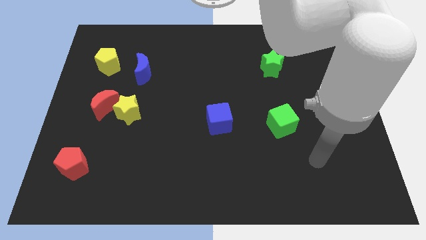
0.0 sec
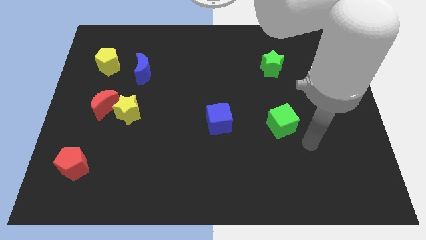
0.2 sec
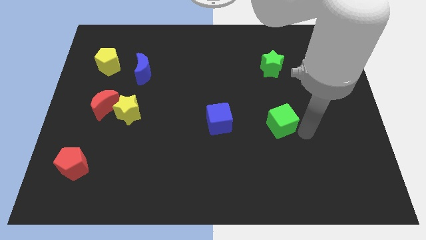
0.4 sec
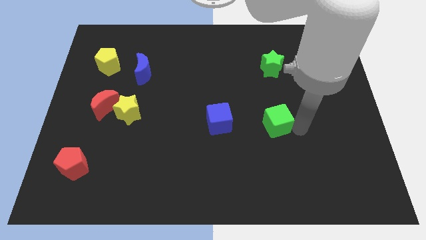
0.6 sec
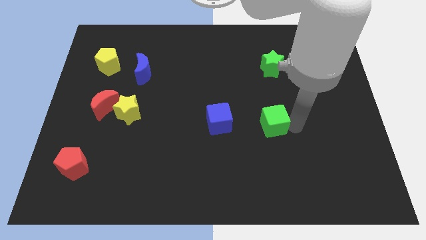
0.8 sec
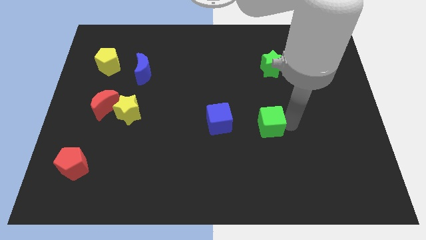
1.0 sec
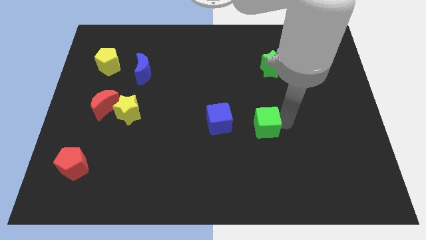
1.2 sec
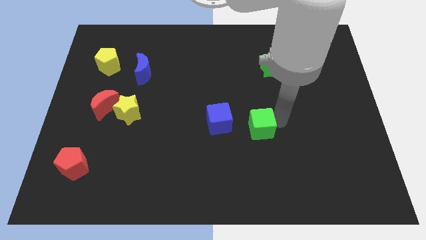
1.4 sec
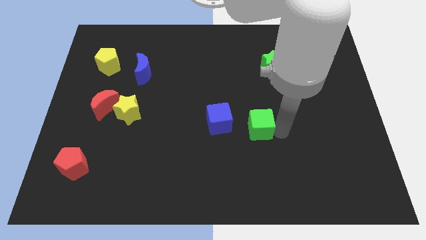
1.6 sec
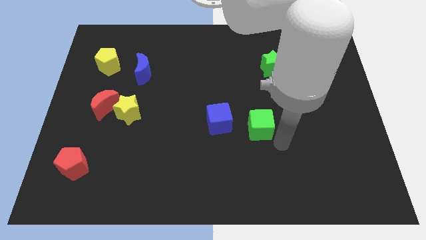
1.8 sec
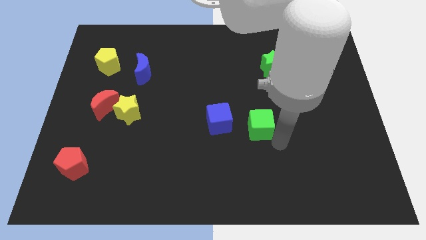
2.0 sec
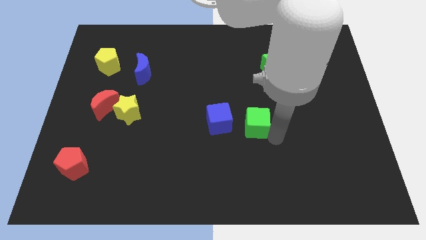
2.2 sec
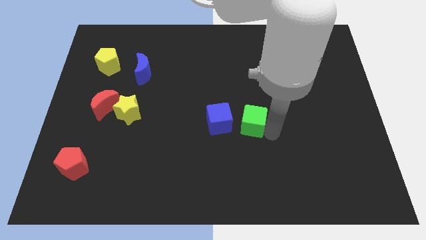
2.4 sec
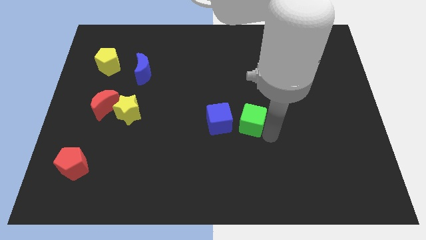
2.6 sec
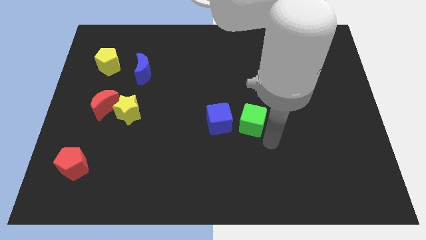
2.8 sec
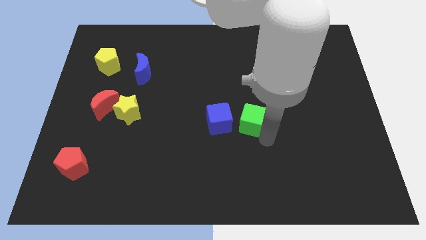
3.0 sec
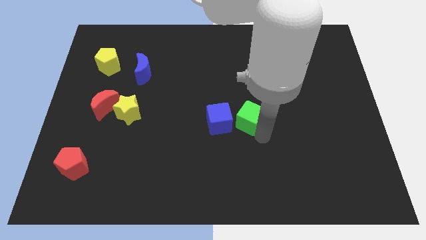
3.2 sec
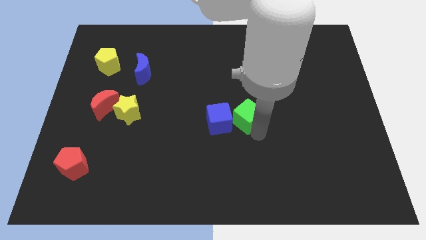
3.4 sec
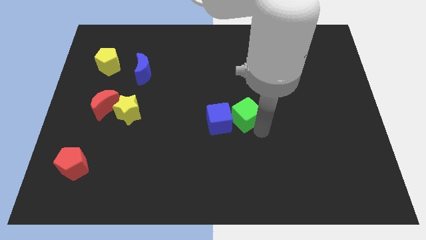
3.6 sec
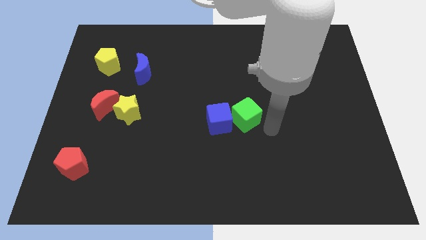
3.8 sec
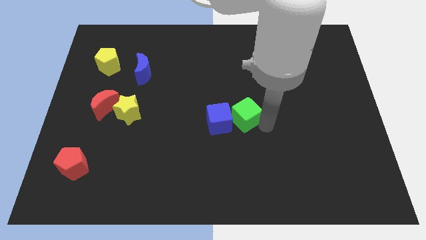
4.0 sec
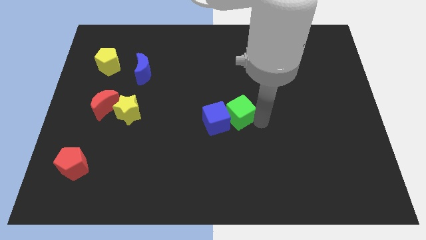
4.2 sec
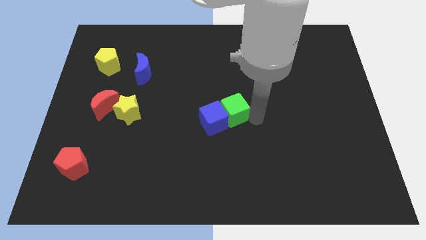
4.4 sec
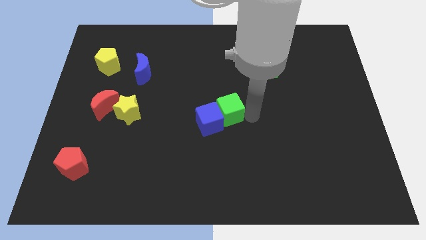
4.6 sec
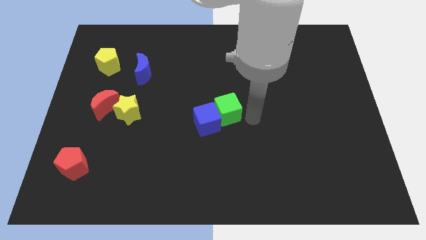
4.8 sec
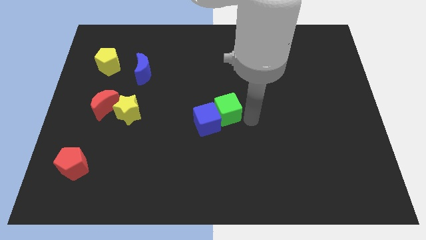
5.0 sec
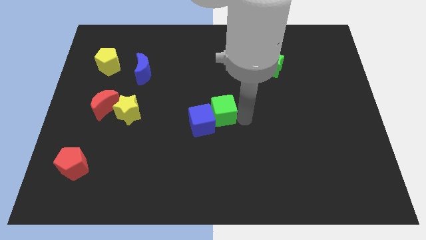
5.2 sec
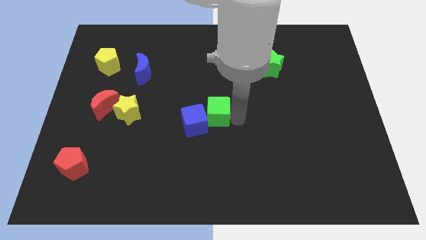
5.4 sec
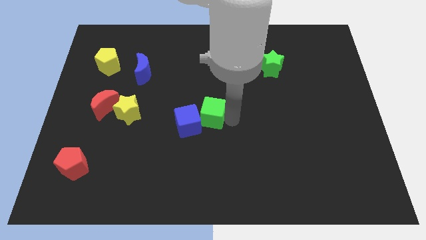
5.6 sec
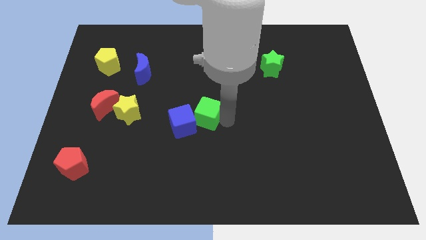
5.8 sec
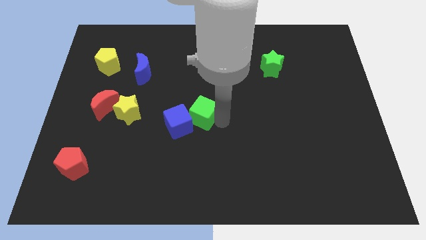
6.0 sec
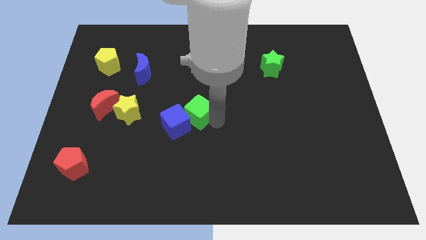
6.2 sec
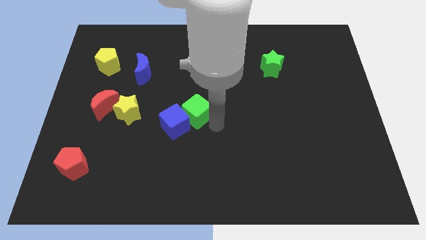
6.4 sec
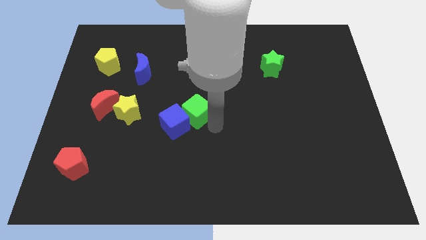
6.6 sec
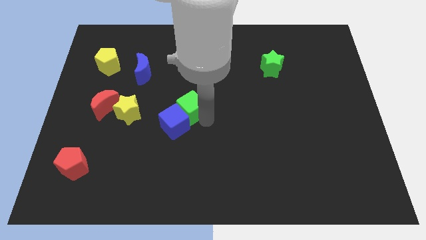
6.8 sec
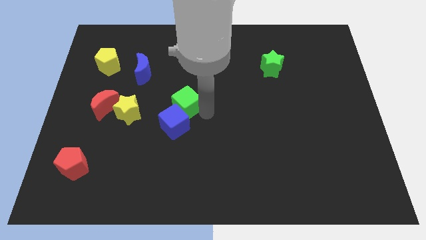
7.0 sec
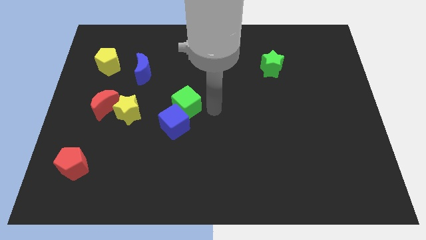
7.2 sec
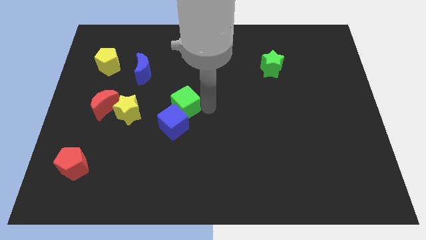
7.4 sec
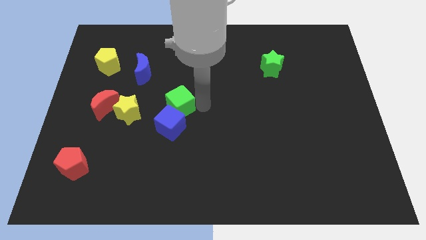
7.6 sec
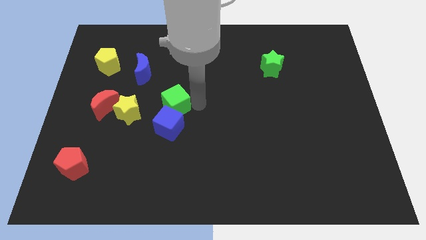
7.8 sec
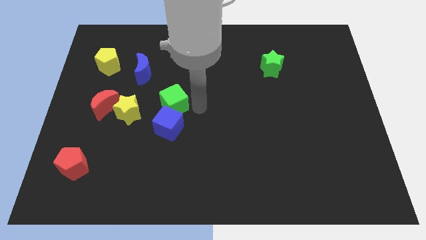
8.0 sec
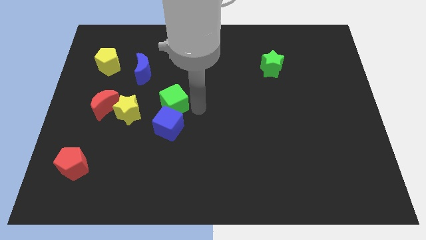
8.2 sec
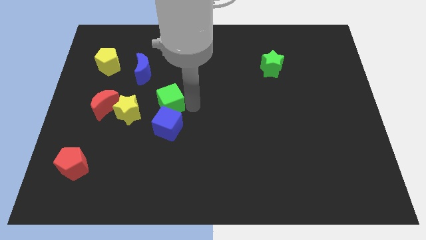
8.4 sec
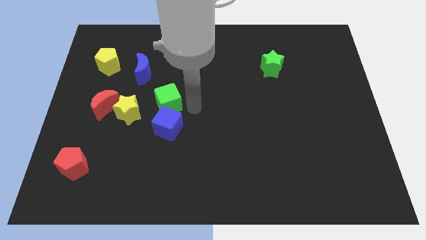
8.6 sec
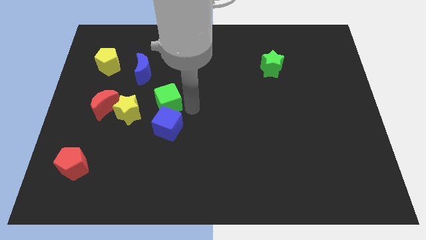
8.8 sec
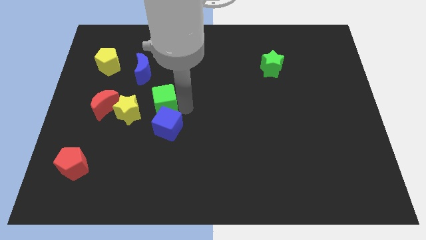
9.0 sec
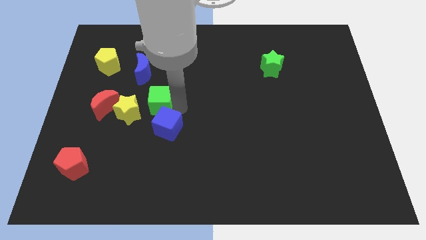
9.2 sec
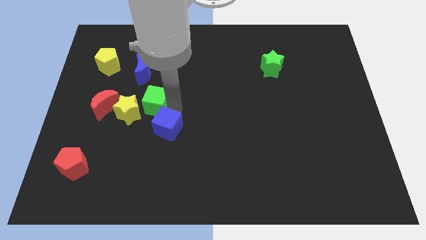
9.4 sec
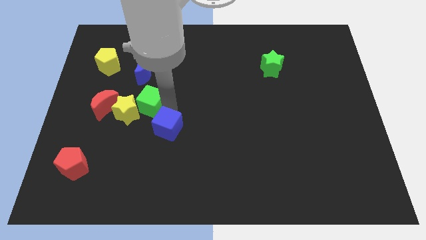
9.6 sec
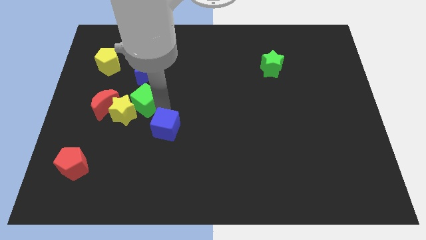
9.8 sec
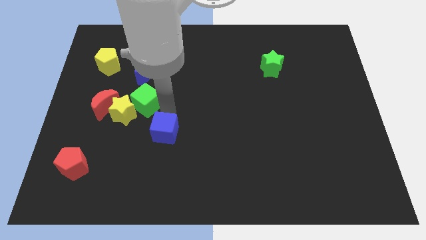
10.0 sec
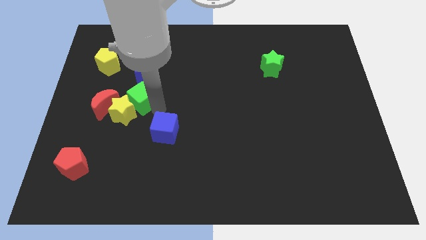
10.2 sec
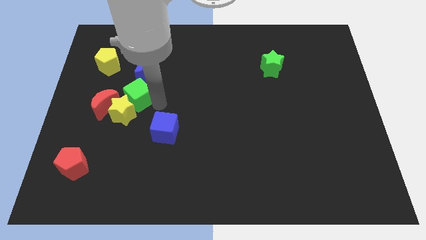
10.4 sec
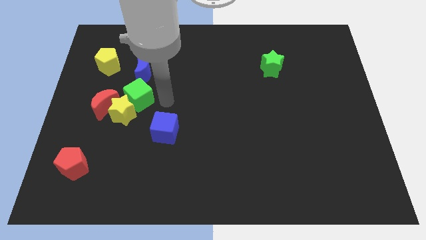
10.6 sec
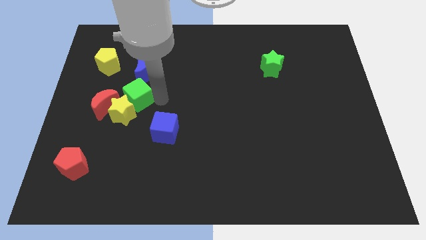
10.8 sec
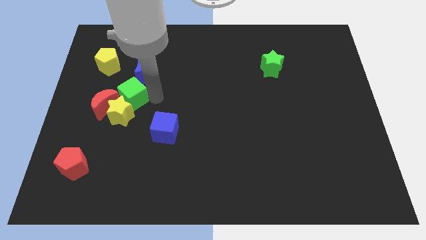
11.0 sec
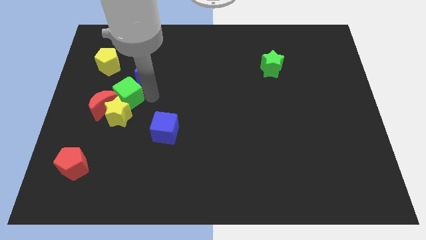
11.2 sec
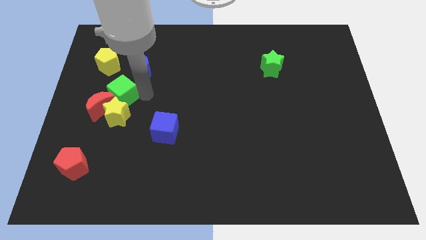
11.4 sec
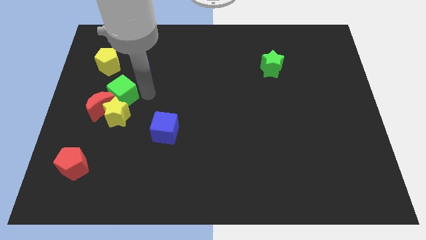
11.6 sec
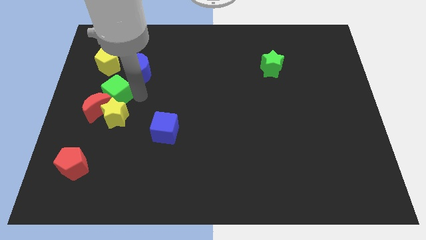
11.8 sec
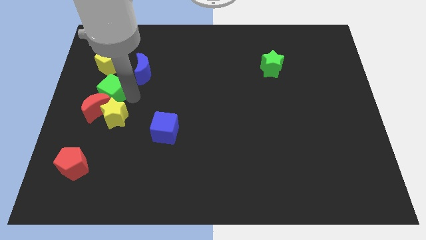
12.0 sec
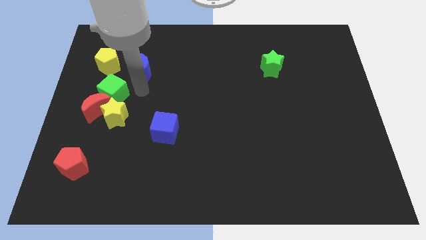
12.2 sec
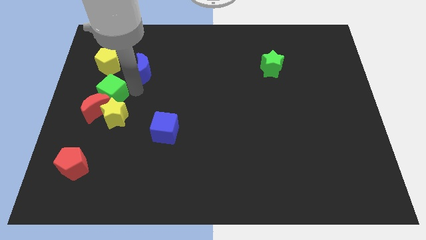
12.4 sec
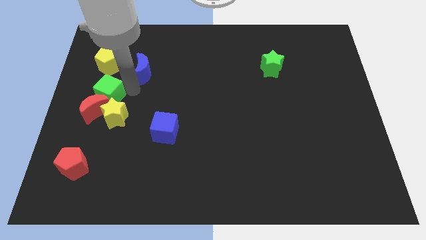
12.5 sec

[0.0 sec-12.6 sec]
put the green cube to the left side of the board

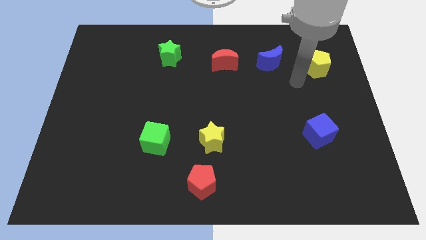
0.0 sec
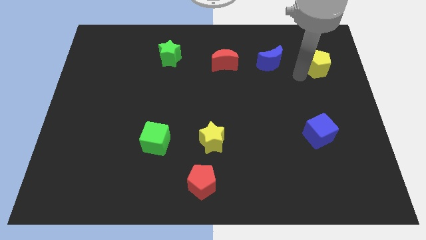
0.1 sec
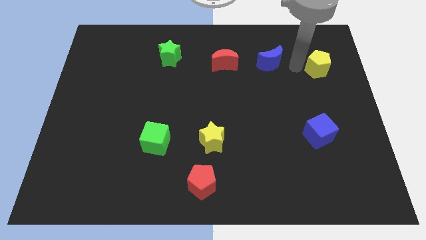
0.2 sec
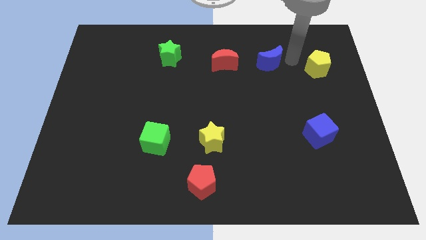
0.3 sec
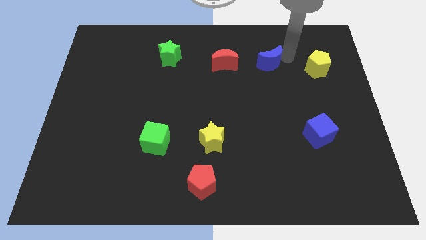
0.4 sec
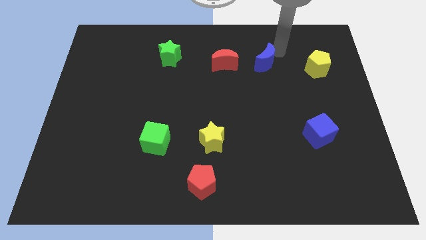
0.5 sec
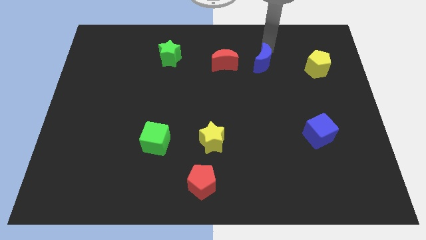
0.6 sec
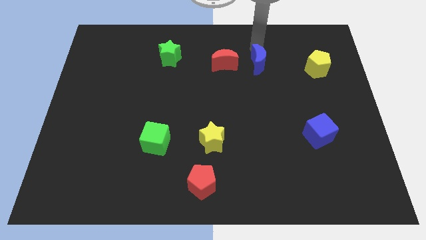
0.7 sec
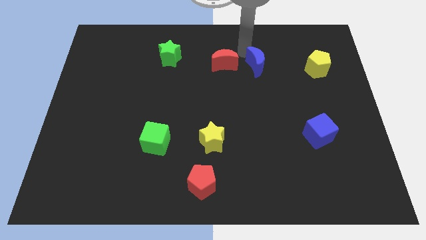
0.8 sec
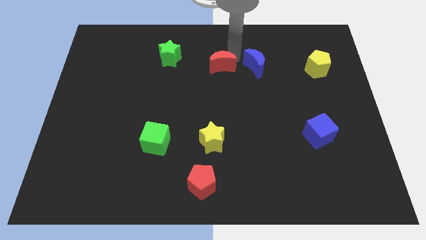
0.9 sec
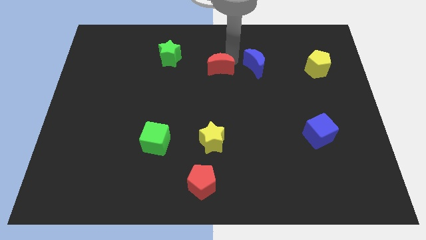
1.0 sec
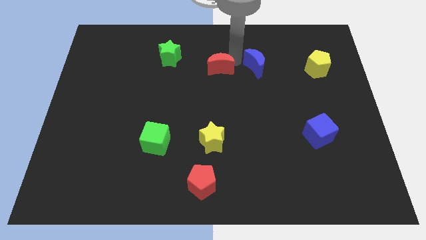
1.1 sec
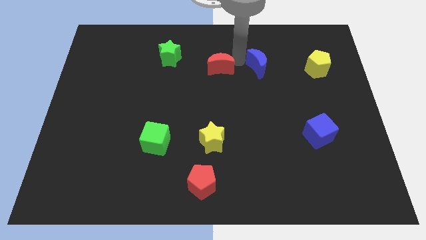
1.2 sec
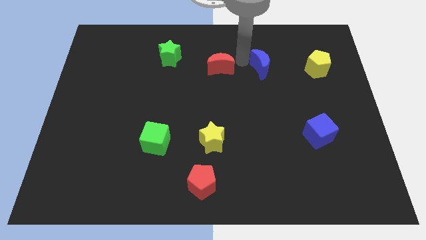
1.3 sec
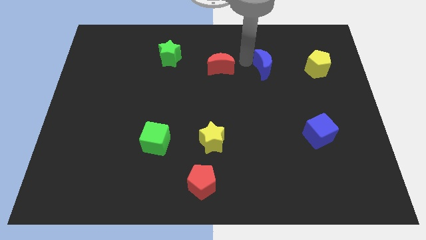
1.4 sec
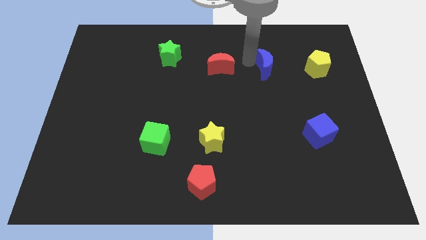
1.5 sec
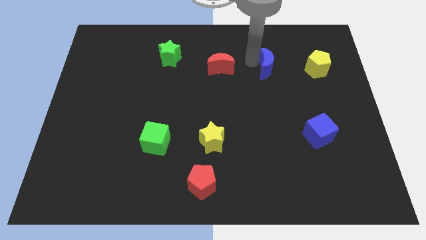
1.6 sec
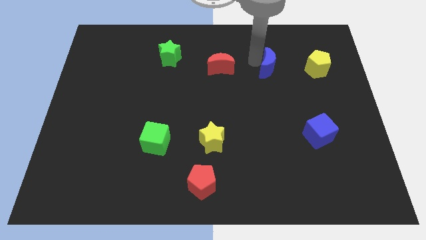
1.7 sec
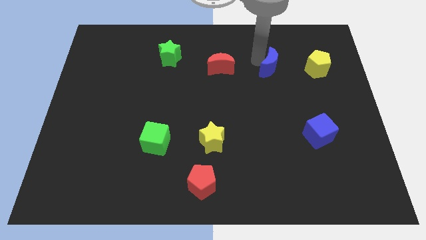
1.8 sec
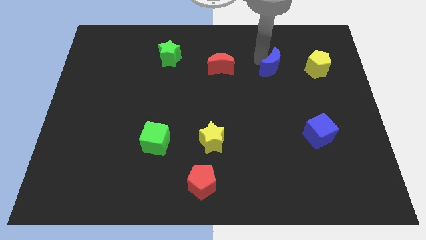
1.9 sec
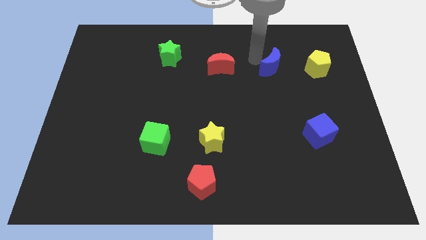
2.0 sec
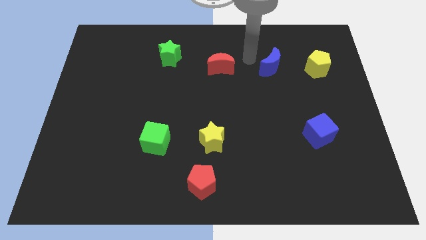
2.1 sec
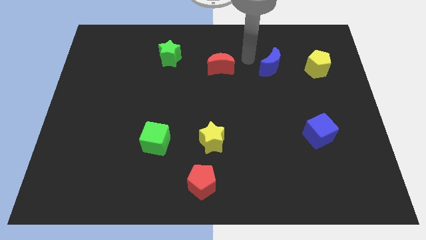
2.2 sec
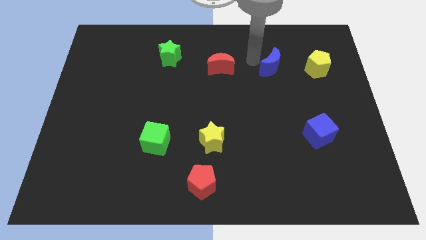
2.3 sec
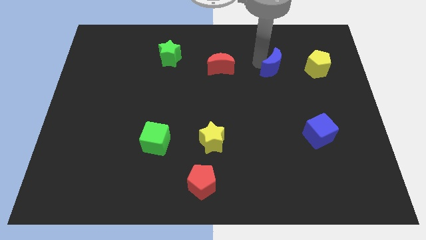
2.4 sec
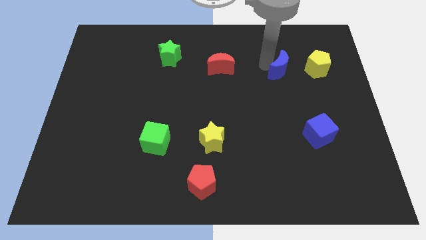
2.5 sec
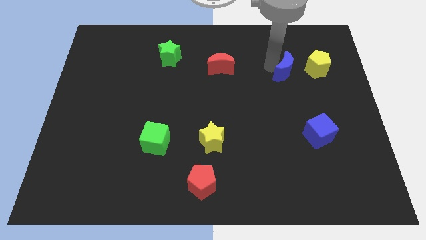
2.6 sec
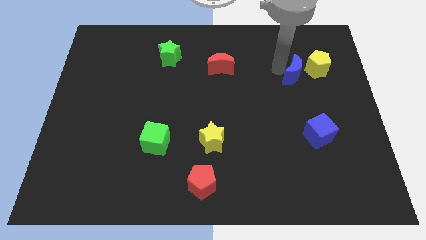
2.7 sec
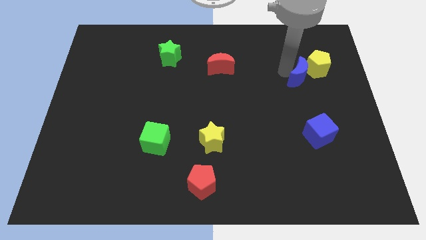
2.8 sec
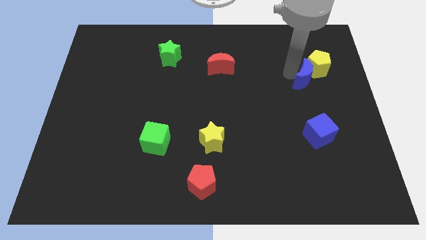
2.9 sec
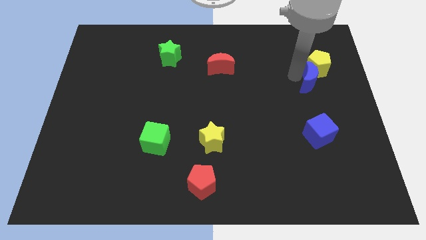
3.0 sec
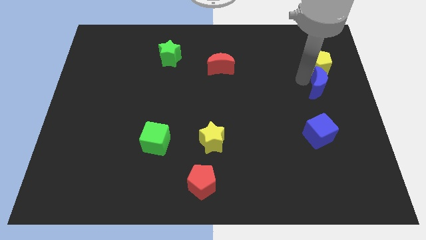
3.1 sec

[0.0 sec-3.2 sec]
move the blue moon to the center right
